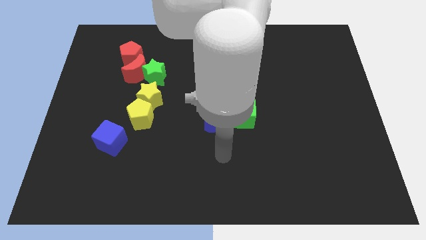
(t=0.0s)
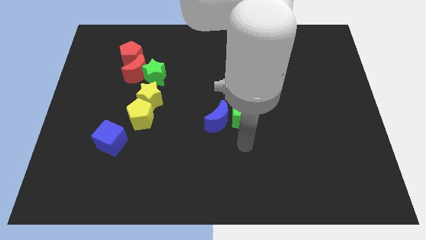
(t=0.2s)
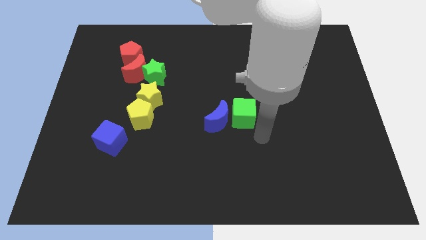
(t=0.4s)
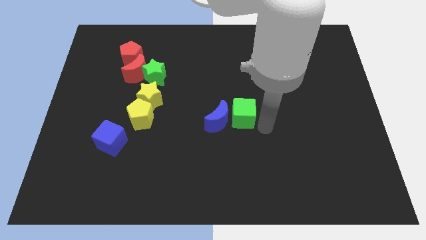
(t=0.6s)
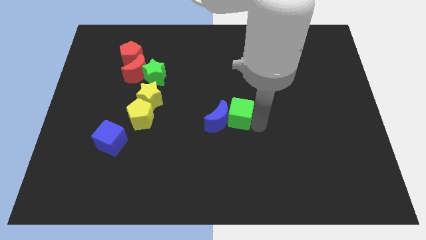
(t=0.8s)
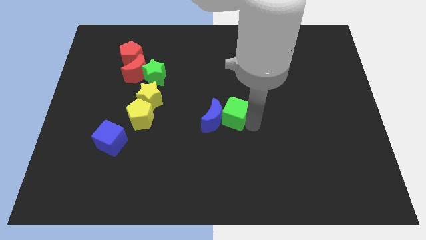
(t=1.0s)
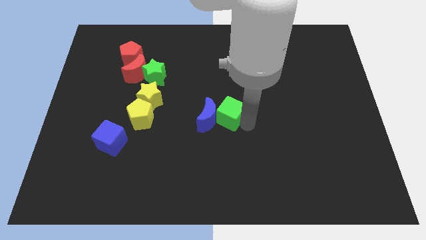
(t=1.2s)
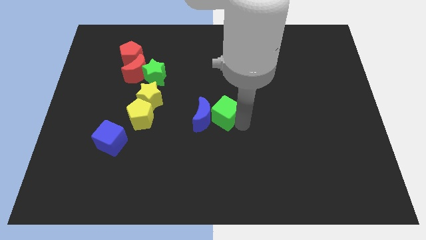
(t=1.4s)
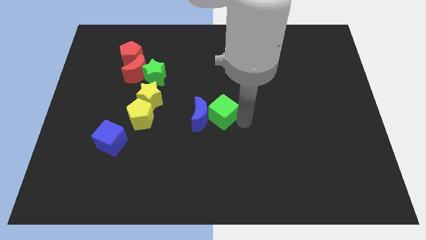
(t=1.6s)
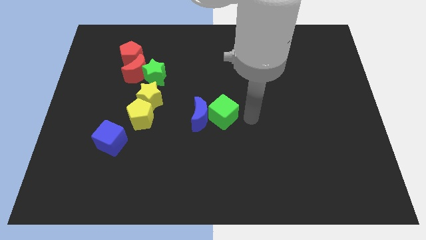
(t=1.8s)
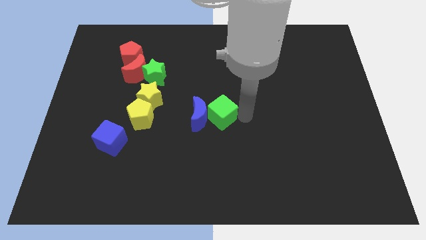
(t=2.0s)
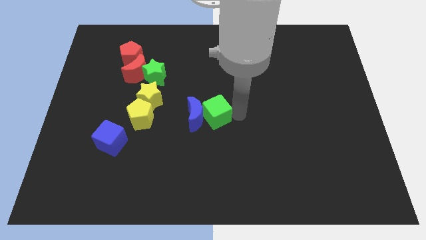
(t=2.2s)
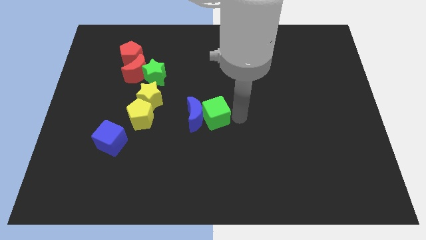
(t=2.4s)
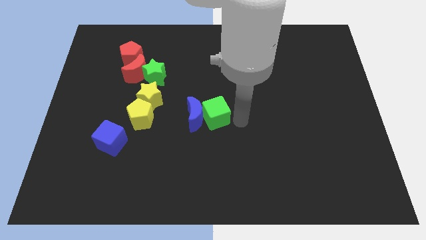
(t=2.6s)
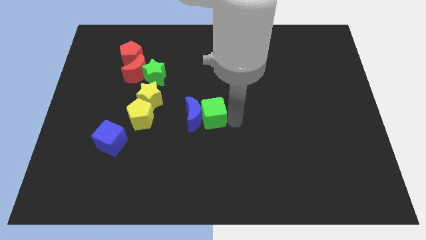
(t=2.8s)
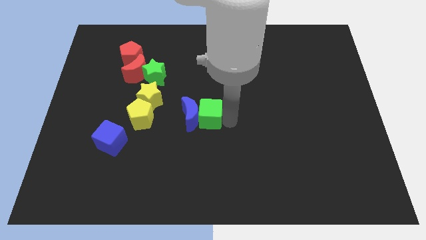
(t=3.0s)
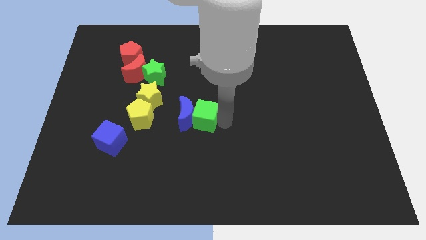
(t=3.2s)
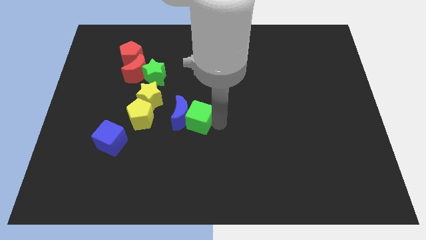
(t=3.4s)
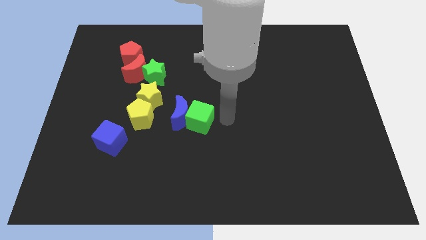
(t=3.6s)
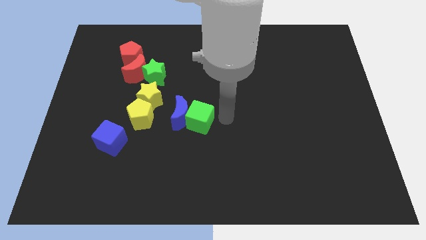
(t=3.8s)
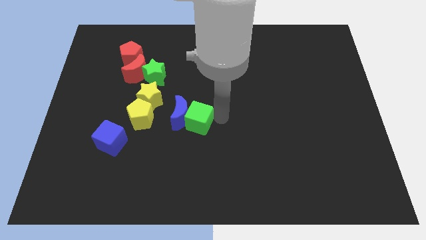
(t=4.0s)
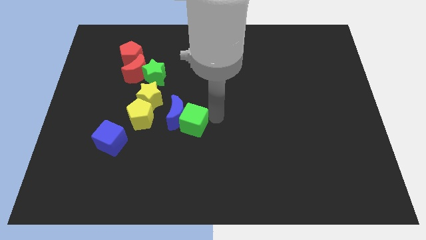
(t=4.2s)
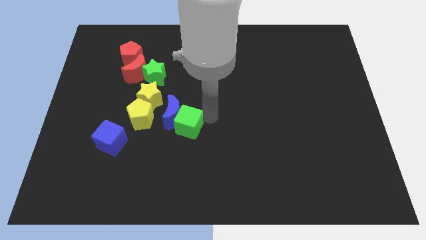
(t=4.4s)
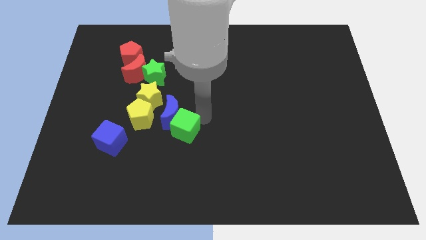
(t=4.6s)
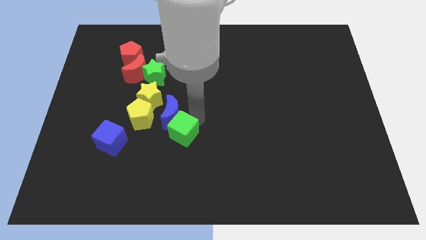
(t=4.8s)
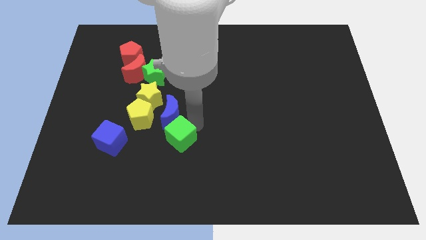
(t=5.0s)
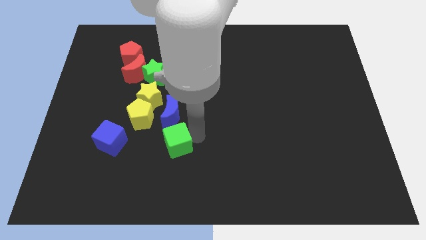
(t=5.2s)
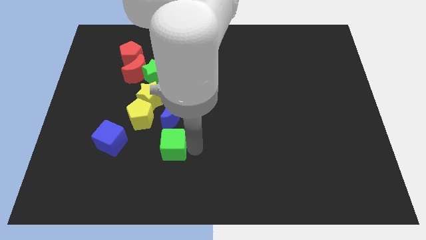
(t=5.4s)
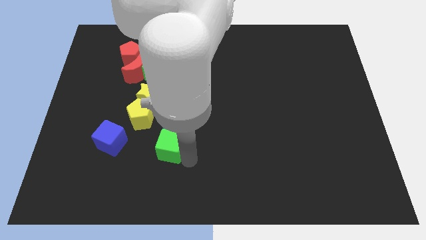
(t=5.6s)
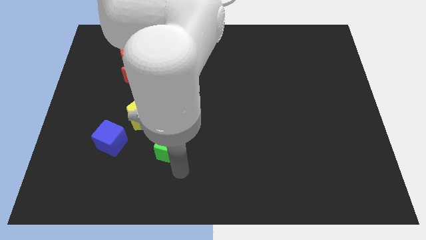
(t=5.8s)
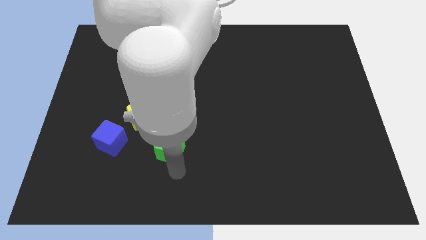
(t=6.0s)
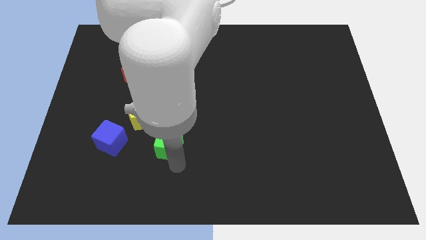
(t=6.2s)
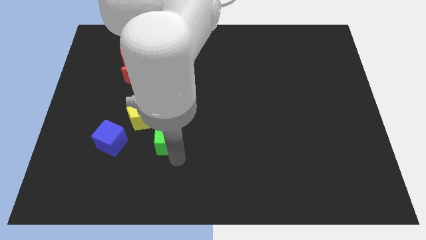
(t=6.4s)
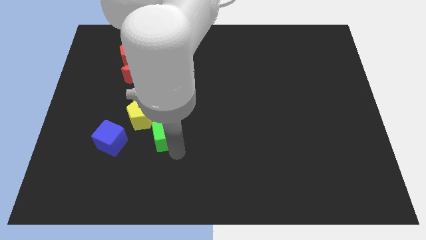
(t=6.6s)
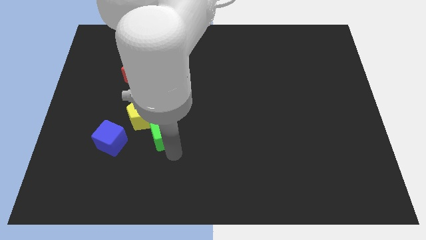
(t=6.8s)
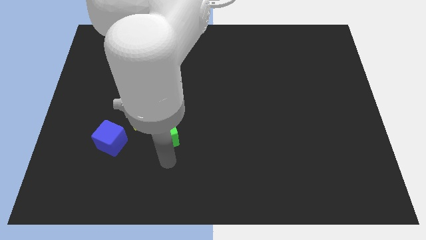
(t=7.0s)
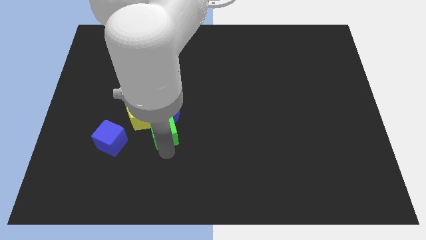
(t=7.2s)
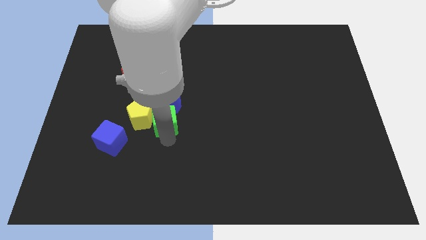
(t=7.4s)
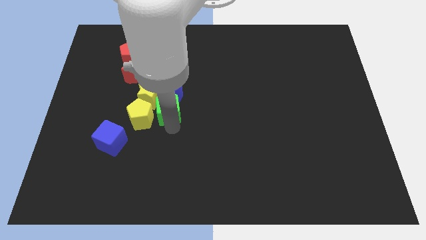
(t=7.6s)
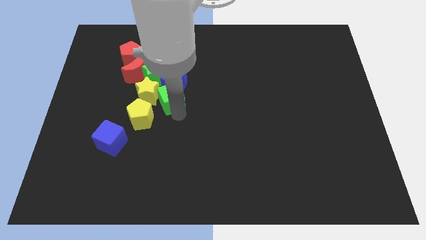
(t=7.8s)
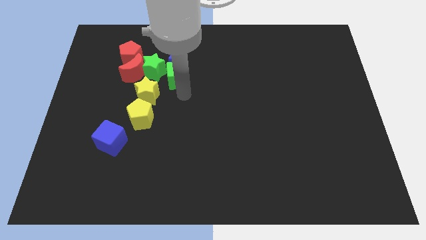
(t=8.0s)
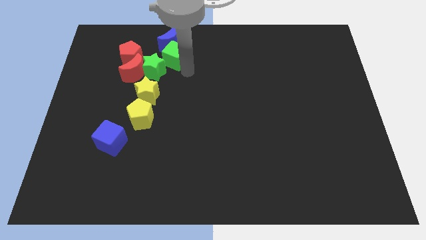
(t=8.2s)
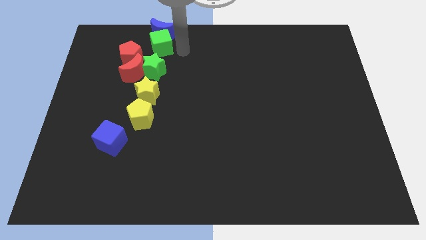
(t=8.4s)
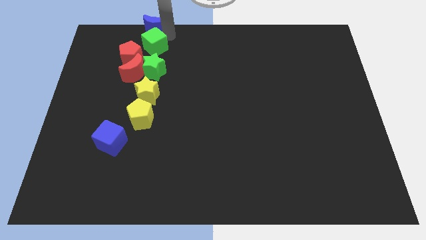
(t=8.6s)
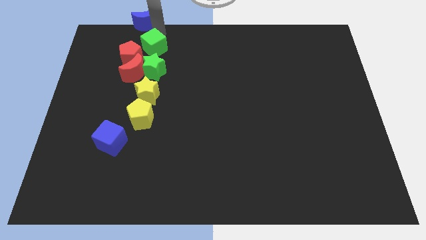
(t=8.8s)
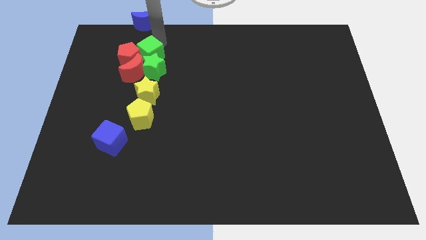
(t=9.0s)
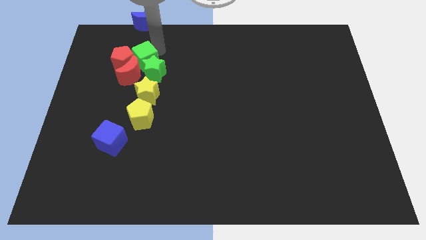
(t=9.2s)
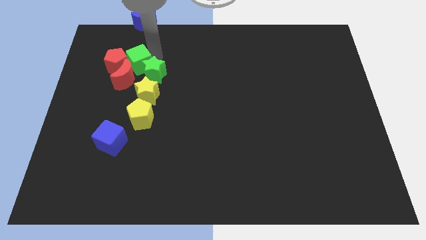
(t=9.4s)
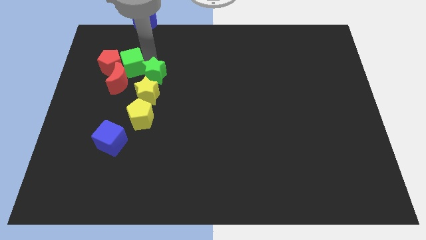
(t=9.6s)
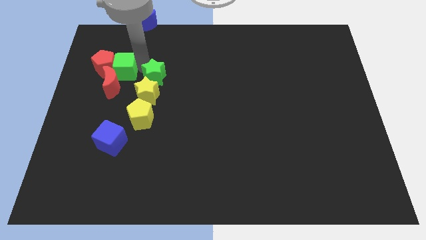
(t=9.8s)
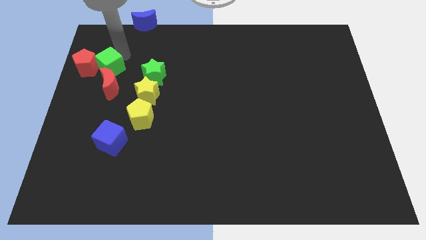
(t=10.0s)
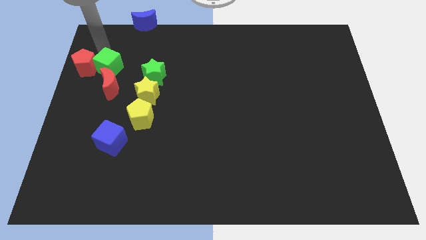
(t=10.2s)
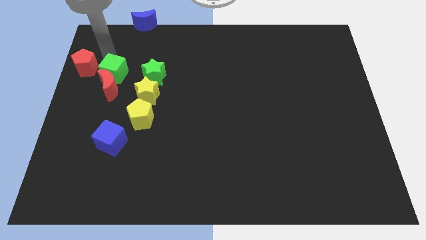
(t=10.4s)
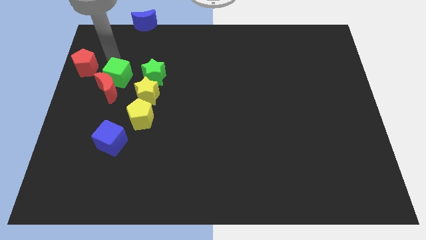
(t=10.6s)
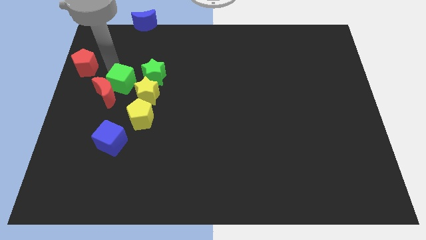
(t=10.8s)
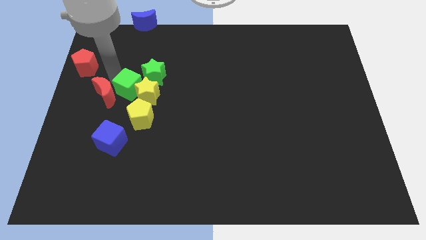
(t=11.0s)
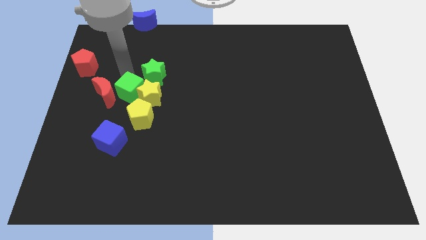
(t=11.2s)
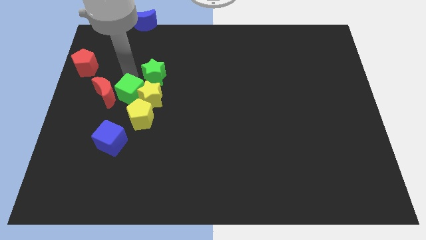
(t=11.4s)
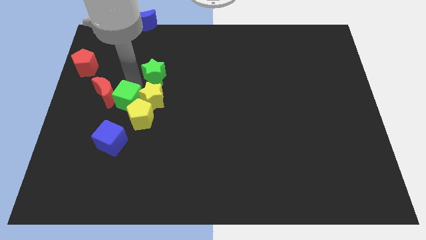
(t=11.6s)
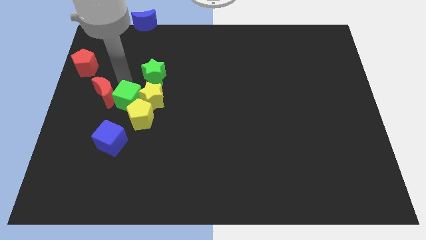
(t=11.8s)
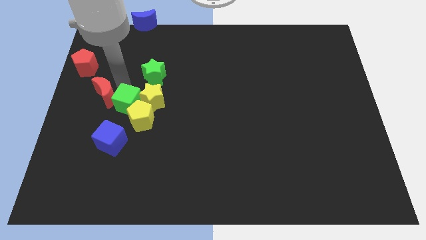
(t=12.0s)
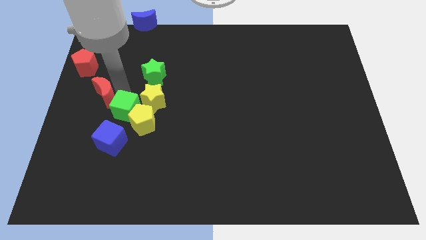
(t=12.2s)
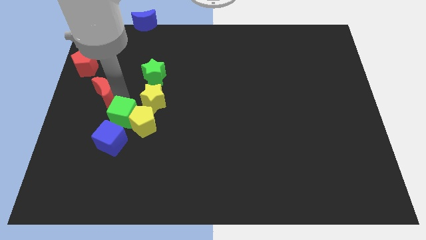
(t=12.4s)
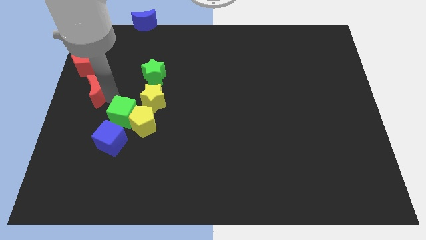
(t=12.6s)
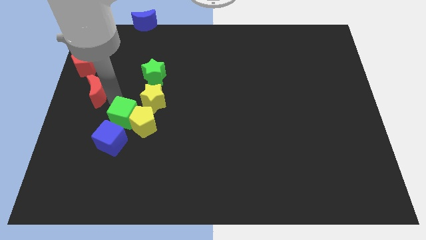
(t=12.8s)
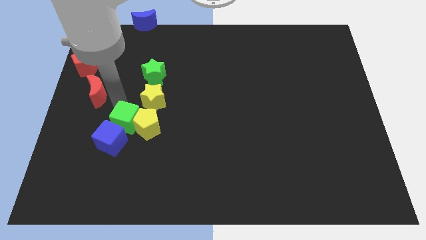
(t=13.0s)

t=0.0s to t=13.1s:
slide the green cube next to the blue cube

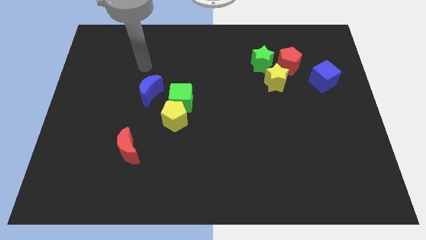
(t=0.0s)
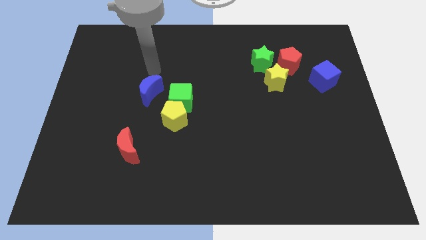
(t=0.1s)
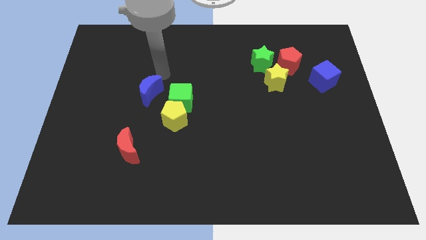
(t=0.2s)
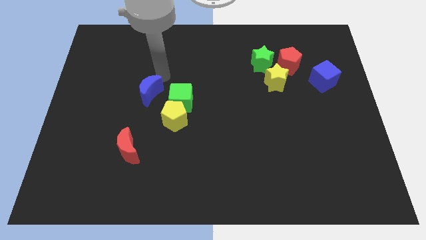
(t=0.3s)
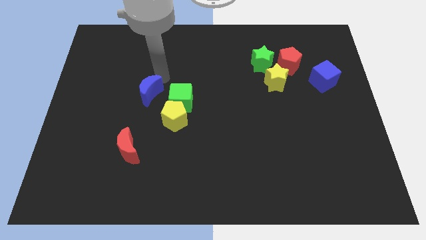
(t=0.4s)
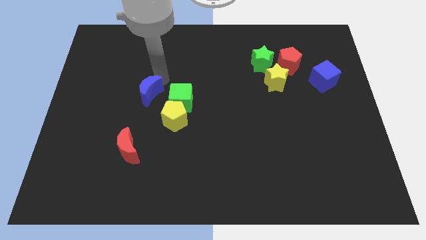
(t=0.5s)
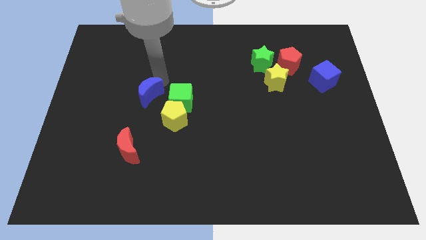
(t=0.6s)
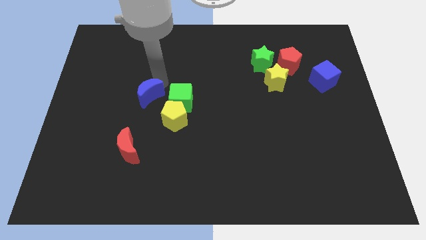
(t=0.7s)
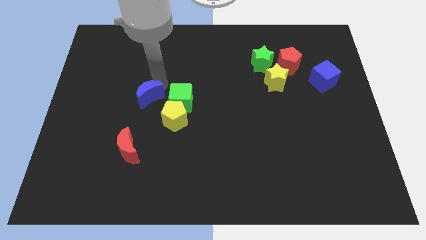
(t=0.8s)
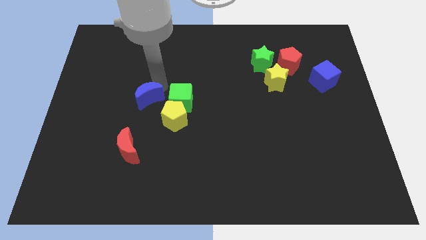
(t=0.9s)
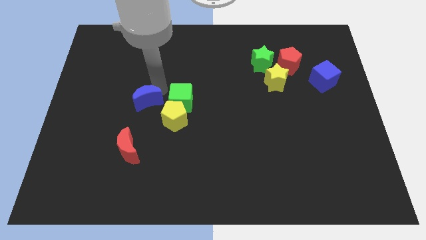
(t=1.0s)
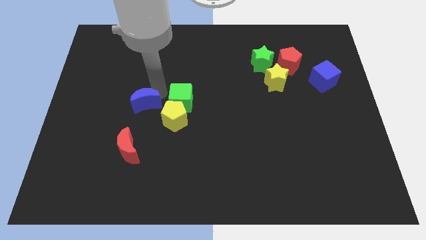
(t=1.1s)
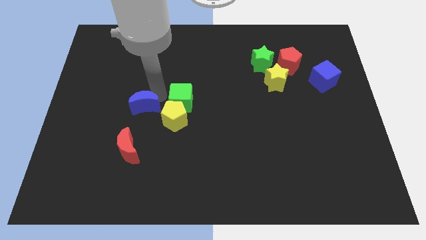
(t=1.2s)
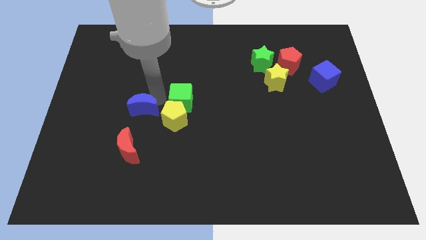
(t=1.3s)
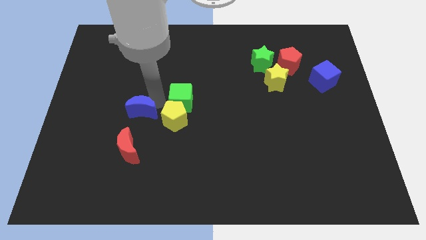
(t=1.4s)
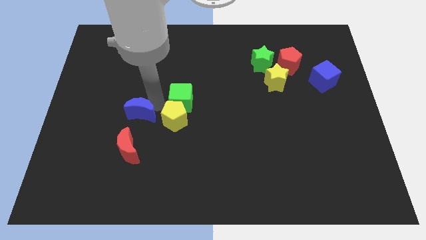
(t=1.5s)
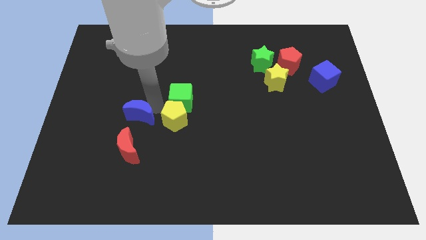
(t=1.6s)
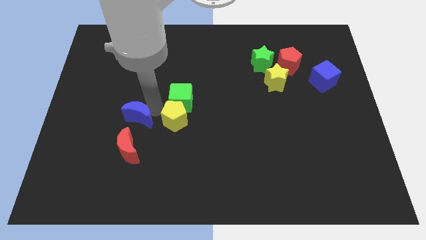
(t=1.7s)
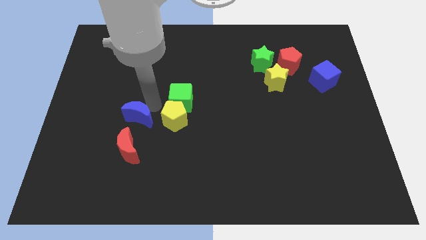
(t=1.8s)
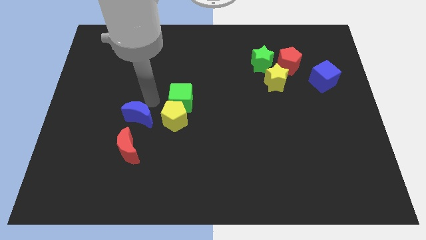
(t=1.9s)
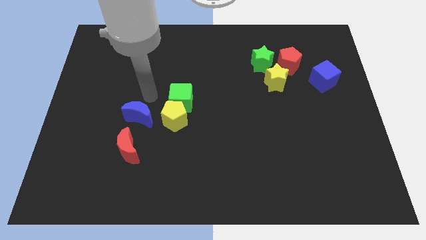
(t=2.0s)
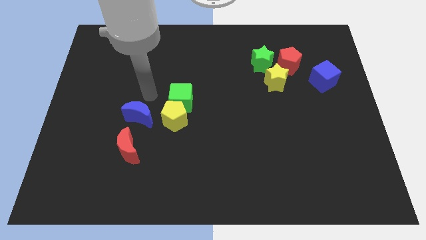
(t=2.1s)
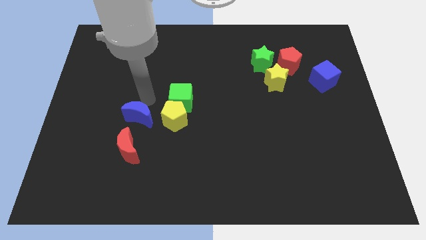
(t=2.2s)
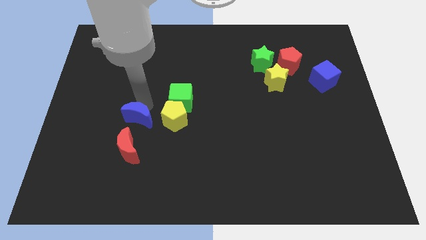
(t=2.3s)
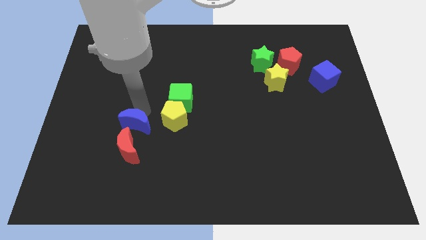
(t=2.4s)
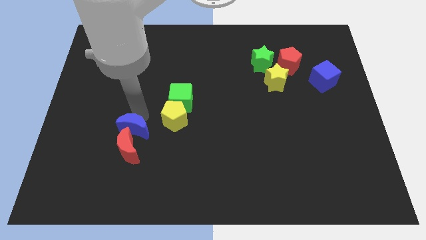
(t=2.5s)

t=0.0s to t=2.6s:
slide the blue moon next to the red moon
